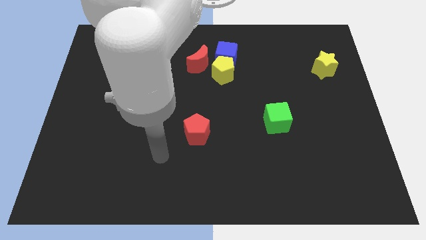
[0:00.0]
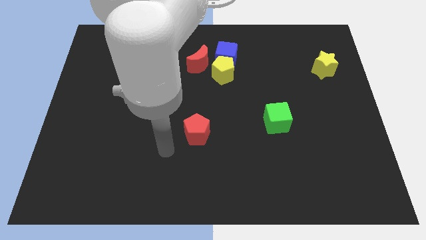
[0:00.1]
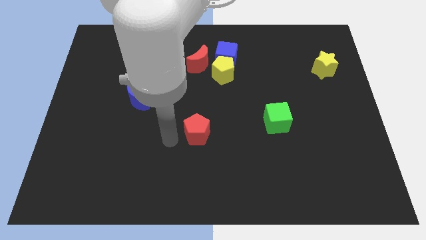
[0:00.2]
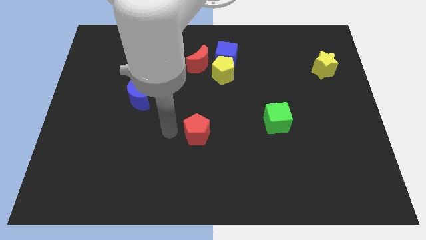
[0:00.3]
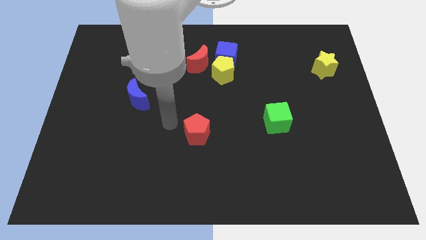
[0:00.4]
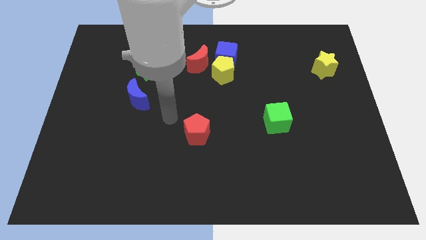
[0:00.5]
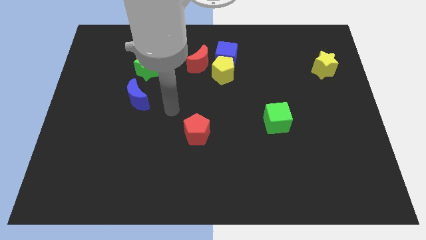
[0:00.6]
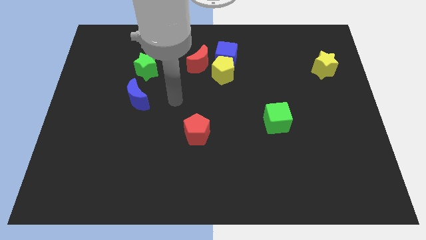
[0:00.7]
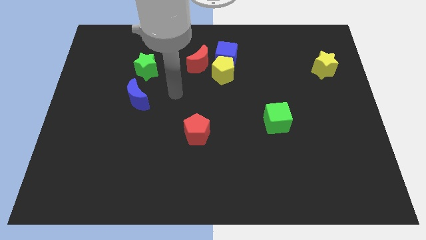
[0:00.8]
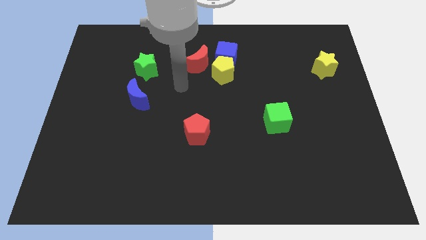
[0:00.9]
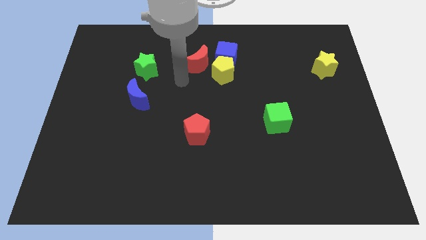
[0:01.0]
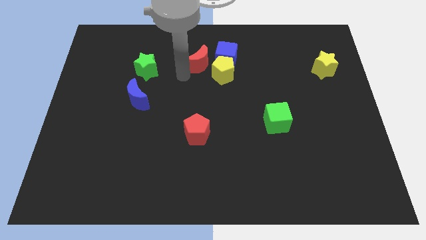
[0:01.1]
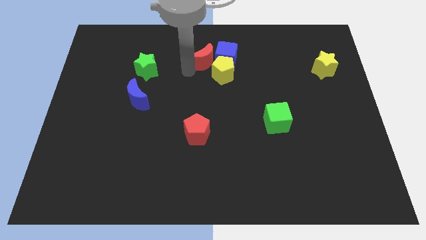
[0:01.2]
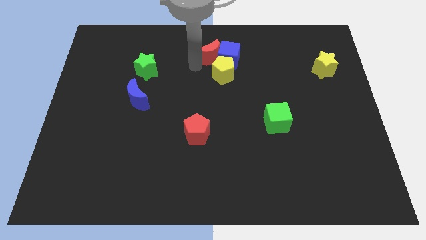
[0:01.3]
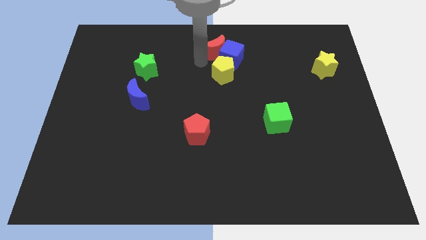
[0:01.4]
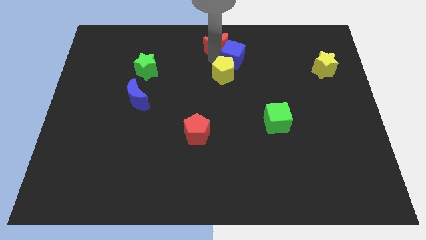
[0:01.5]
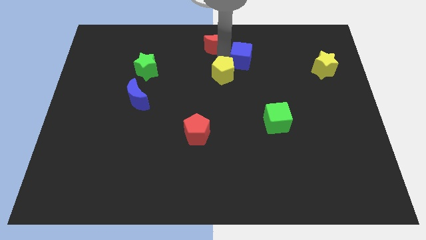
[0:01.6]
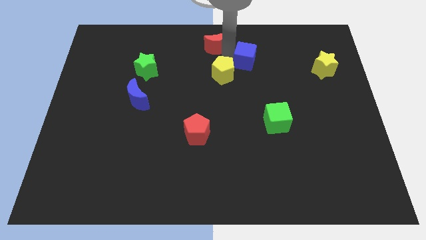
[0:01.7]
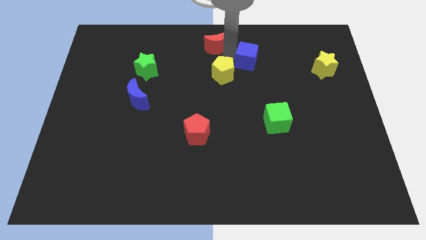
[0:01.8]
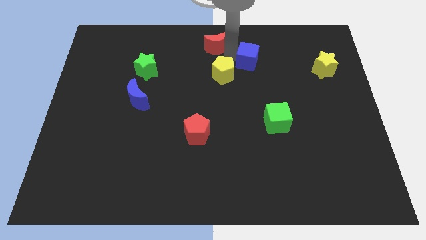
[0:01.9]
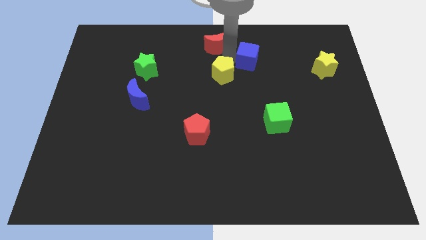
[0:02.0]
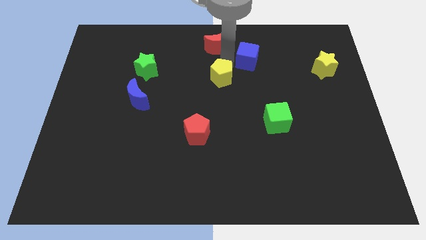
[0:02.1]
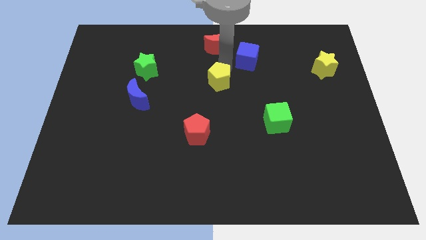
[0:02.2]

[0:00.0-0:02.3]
pull the yellow pentagon apart from the blue cube and red moon

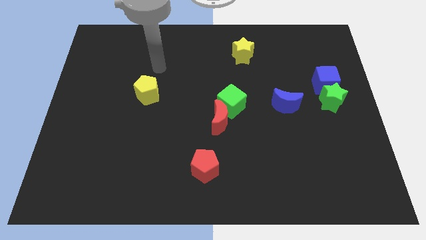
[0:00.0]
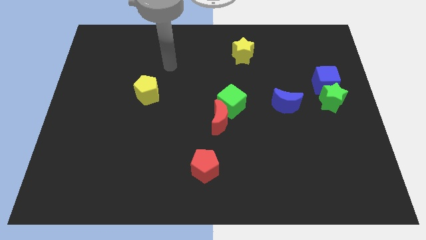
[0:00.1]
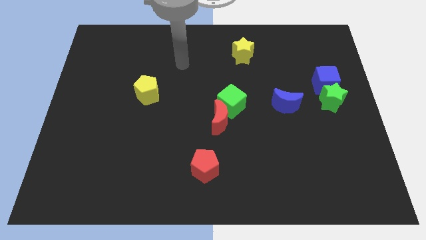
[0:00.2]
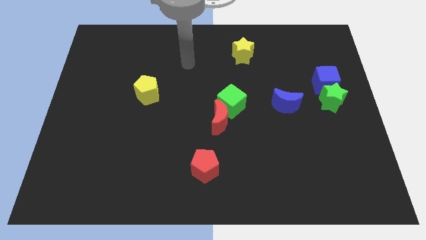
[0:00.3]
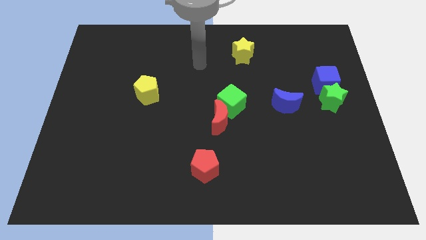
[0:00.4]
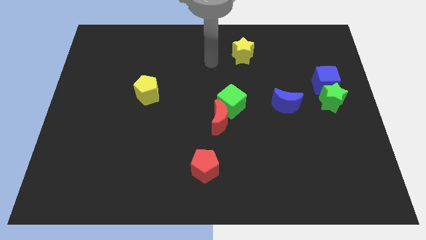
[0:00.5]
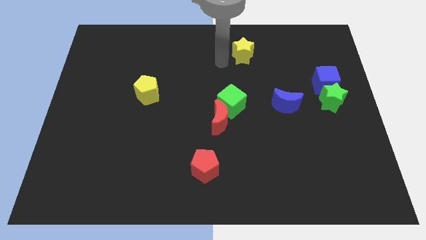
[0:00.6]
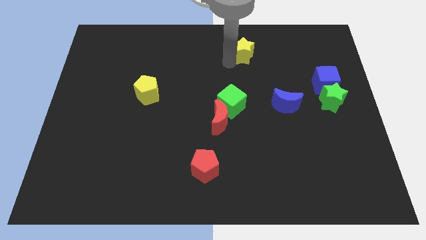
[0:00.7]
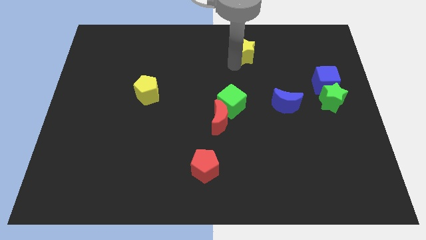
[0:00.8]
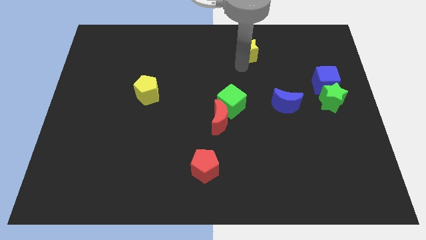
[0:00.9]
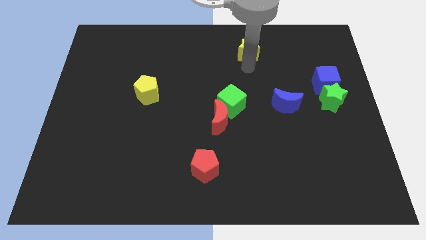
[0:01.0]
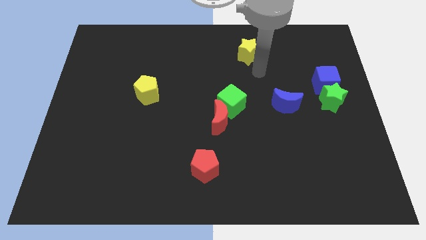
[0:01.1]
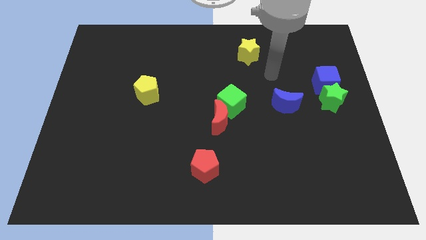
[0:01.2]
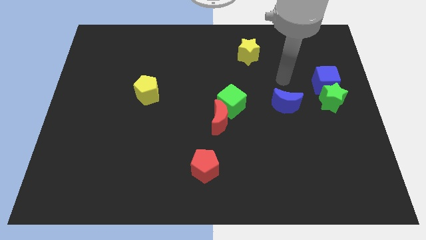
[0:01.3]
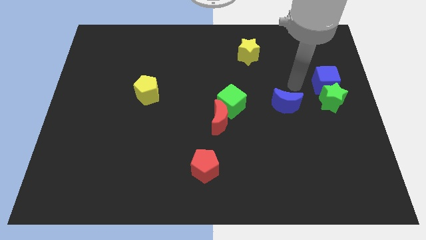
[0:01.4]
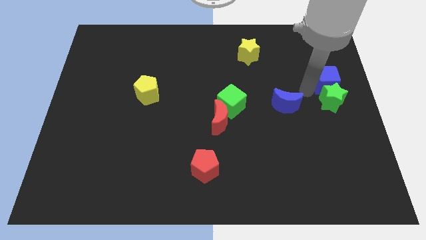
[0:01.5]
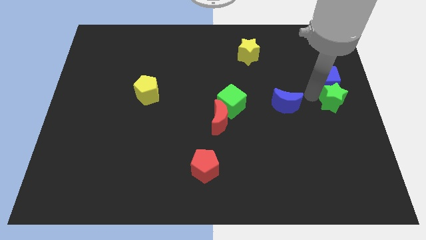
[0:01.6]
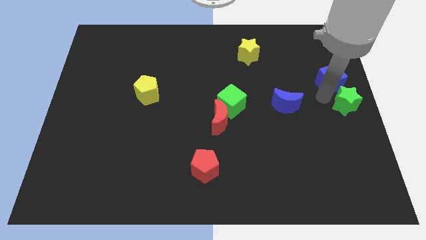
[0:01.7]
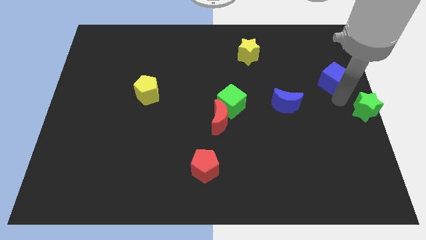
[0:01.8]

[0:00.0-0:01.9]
pull the blue cube apart from the green star

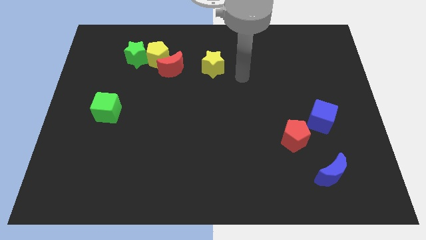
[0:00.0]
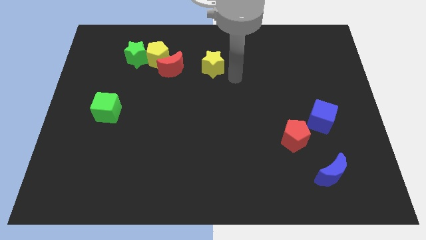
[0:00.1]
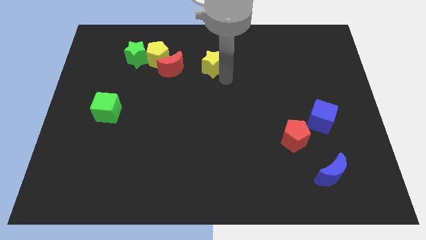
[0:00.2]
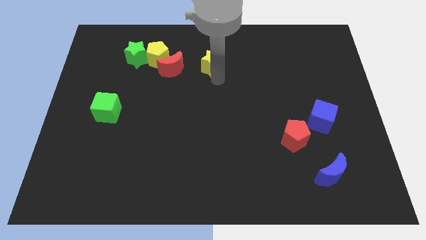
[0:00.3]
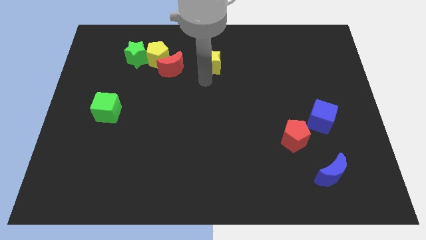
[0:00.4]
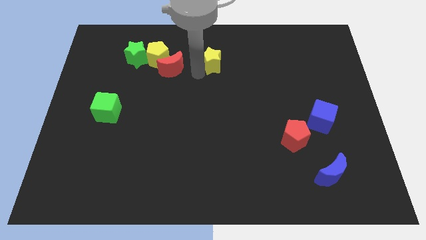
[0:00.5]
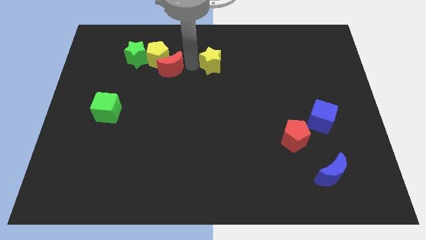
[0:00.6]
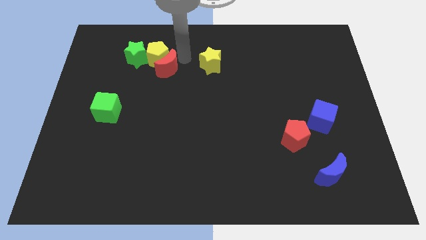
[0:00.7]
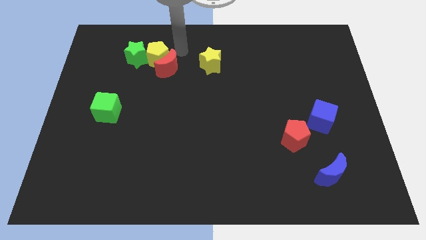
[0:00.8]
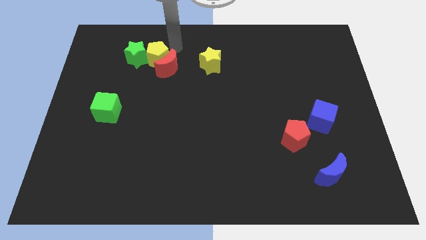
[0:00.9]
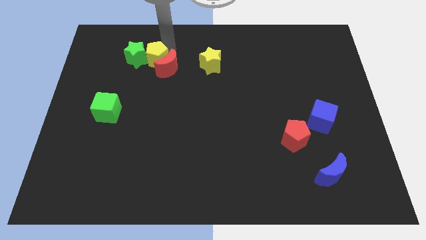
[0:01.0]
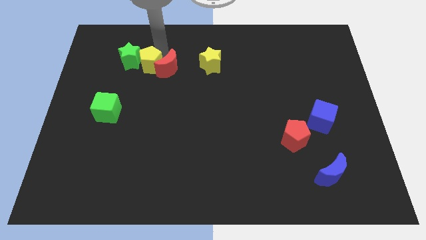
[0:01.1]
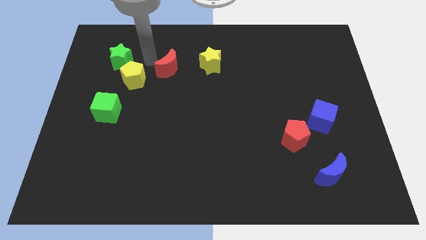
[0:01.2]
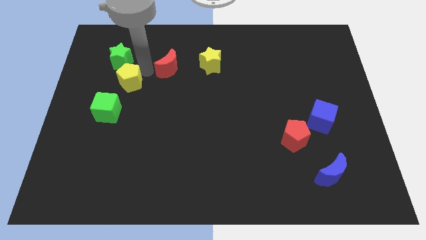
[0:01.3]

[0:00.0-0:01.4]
separate the red moon from the yellow pentagon

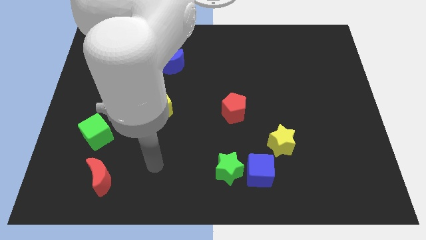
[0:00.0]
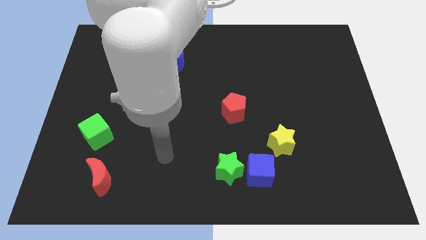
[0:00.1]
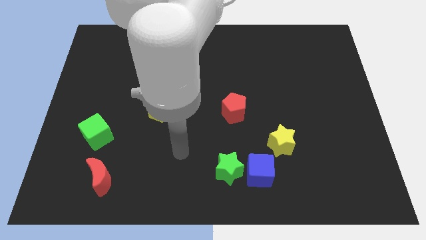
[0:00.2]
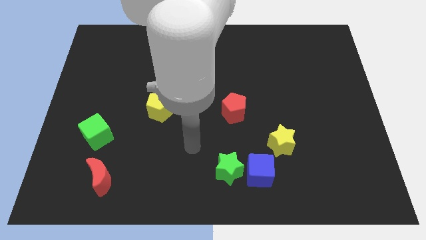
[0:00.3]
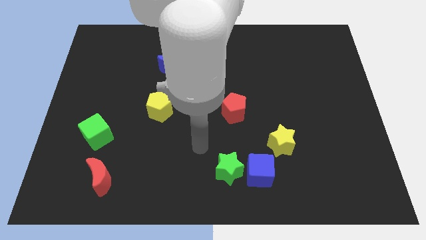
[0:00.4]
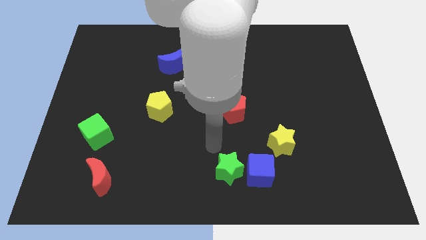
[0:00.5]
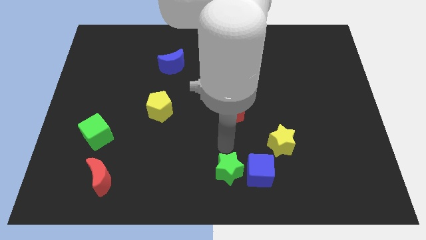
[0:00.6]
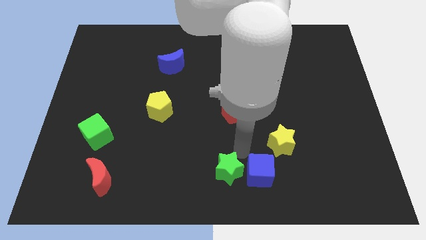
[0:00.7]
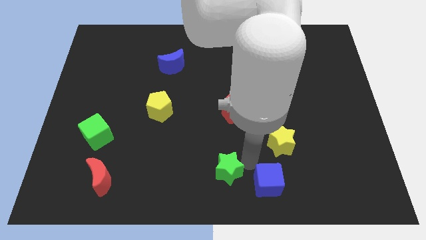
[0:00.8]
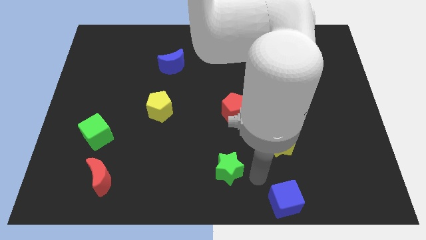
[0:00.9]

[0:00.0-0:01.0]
pull the green star apart from the blue cube

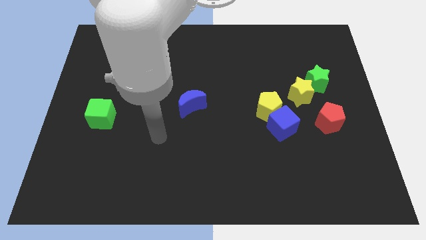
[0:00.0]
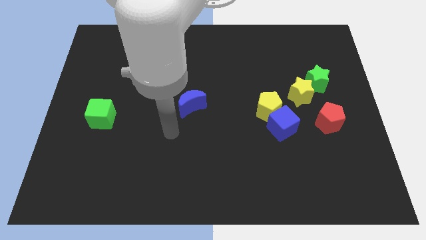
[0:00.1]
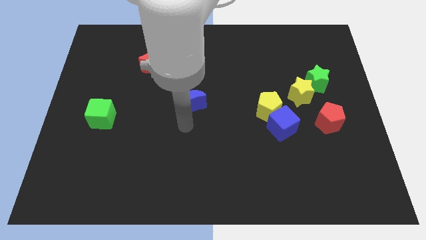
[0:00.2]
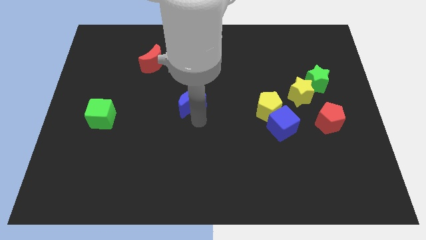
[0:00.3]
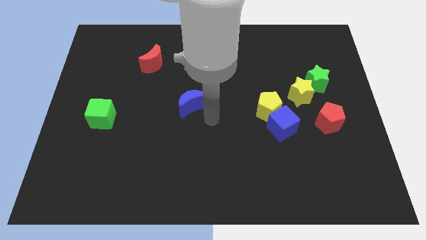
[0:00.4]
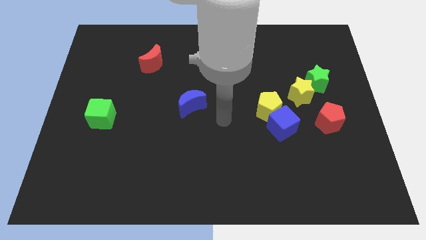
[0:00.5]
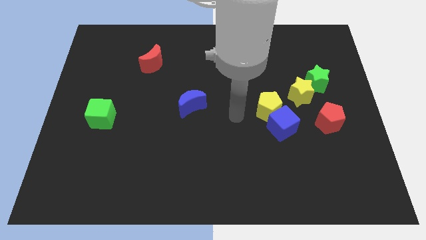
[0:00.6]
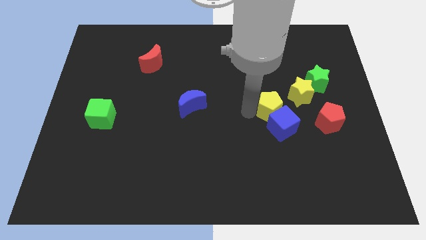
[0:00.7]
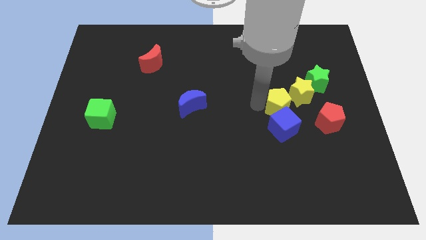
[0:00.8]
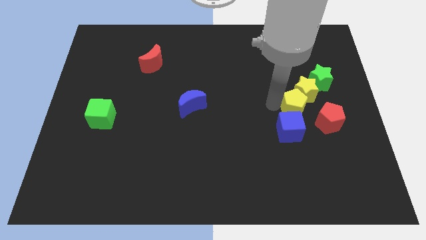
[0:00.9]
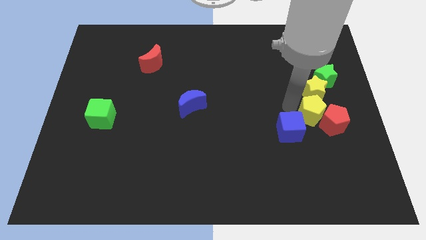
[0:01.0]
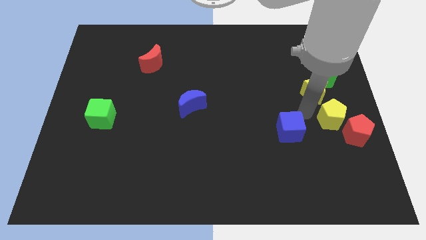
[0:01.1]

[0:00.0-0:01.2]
separate the blue cube from the yellow pentagon

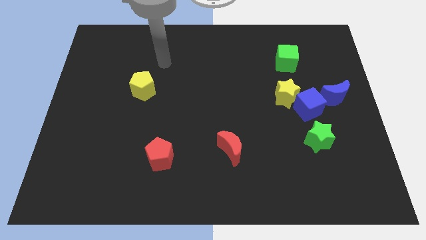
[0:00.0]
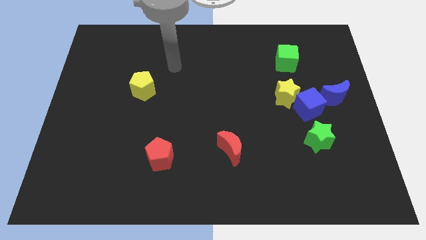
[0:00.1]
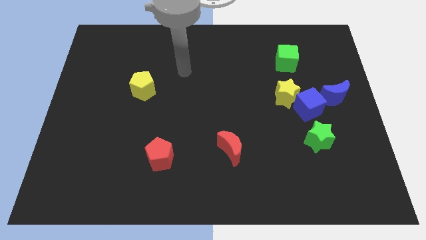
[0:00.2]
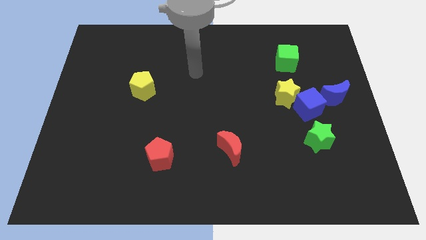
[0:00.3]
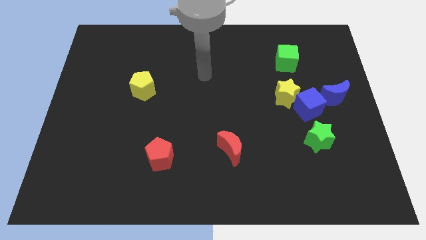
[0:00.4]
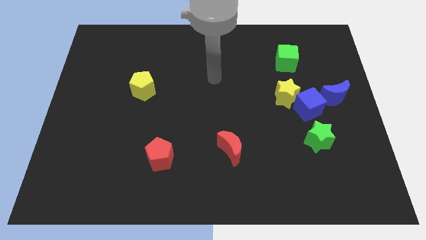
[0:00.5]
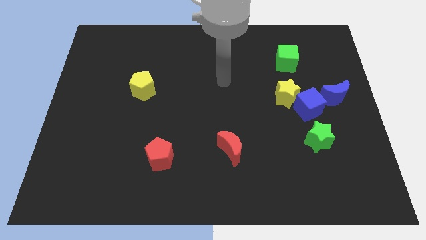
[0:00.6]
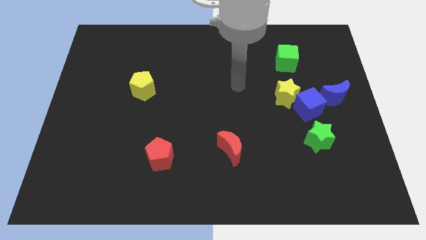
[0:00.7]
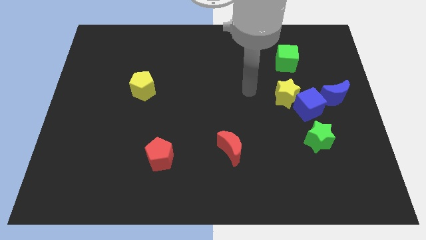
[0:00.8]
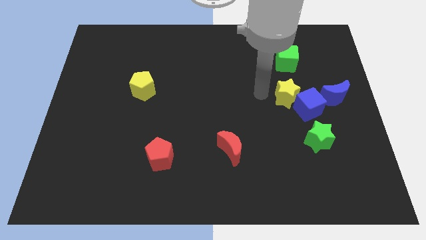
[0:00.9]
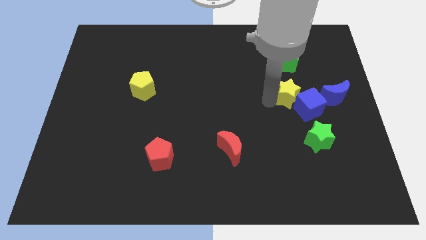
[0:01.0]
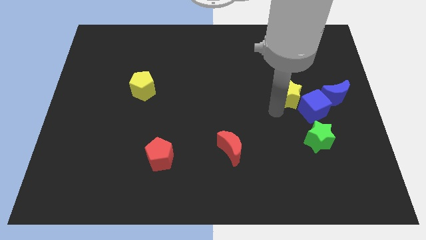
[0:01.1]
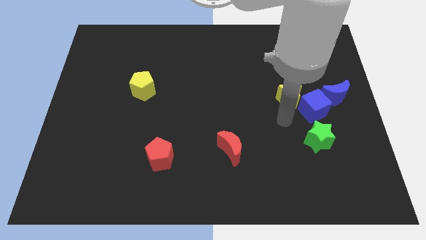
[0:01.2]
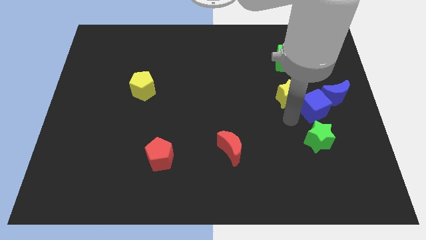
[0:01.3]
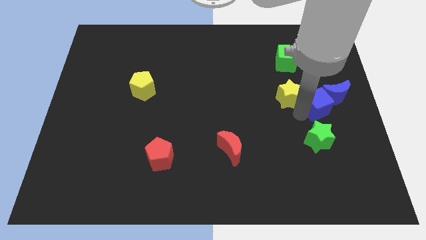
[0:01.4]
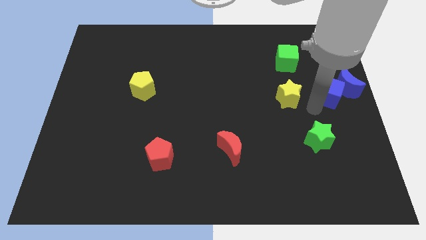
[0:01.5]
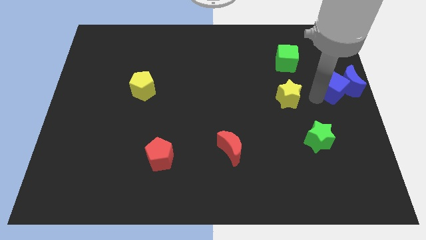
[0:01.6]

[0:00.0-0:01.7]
move the yellow star away from the blue cube
